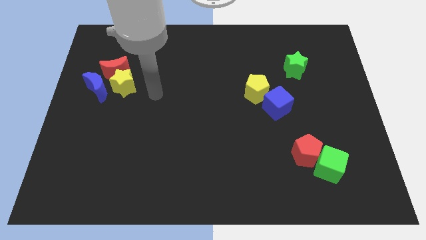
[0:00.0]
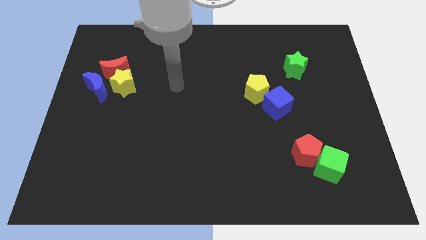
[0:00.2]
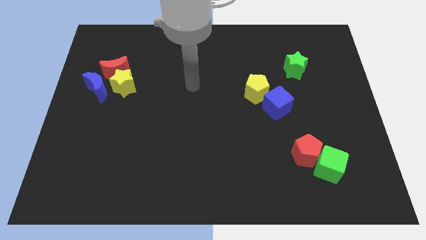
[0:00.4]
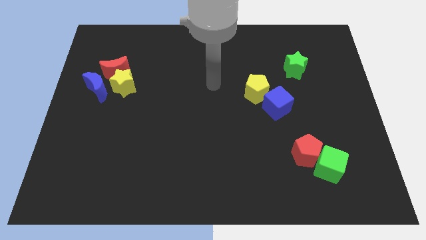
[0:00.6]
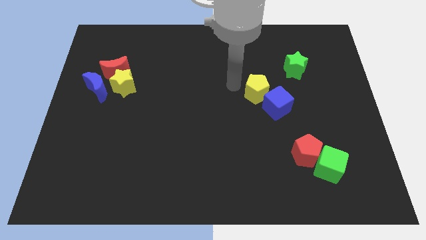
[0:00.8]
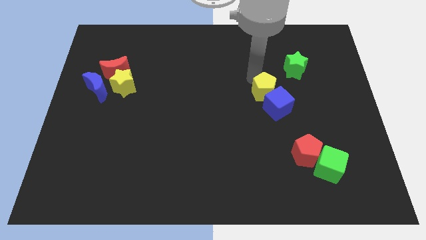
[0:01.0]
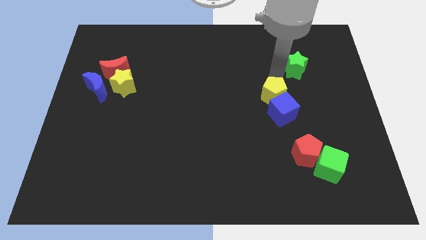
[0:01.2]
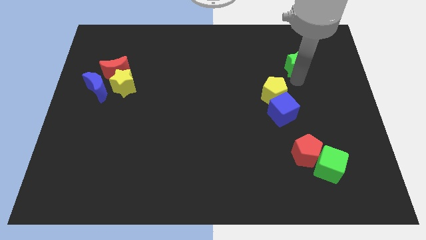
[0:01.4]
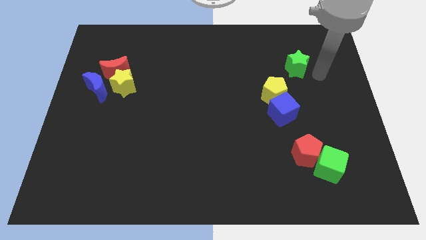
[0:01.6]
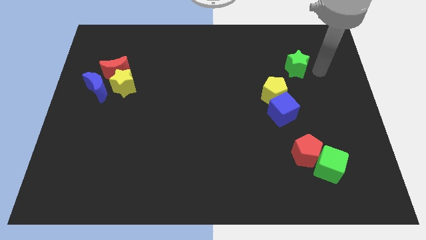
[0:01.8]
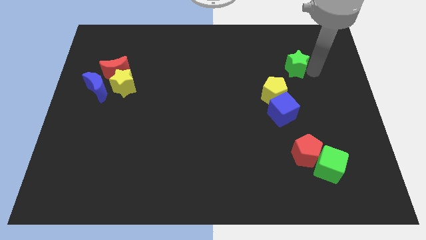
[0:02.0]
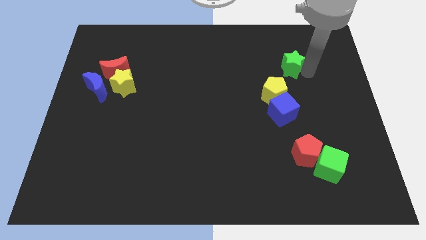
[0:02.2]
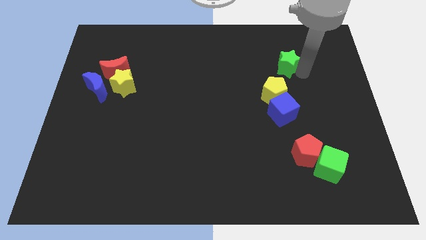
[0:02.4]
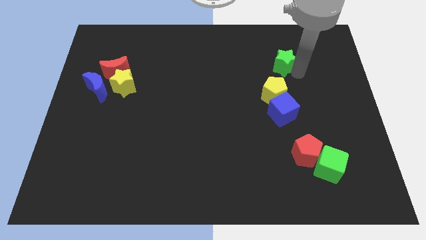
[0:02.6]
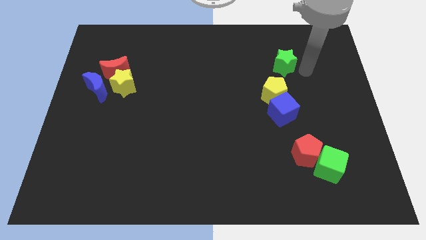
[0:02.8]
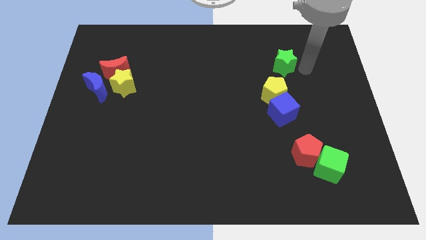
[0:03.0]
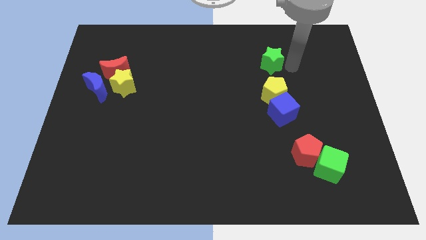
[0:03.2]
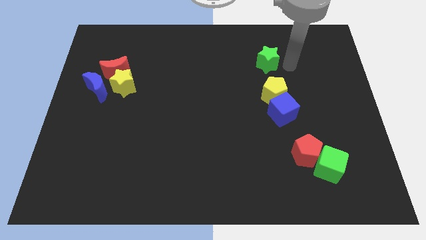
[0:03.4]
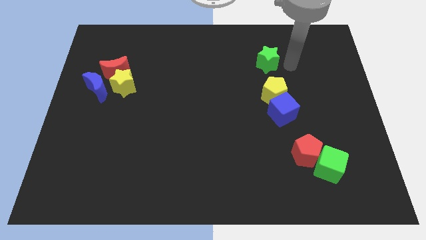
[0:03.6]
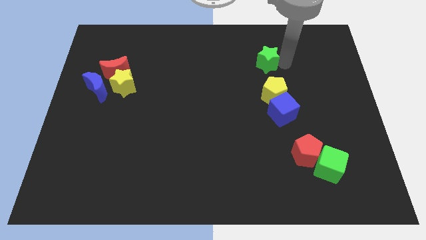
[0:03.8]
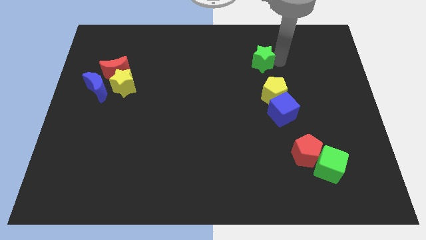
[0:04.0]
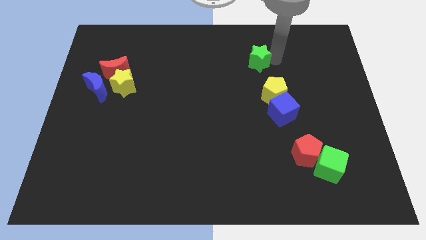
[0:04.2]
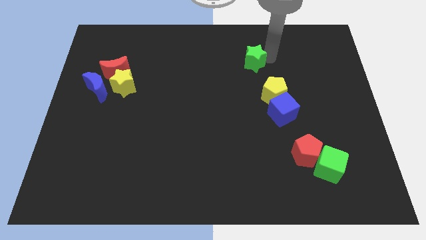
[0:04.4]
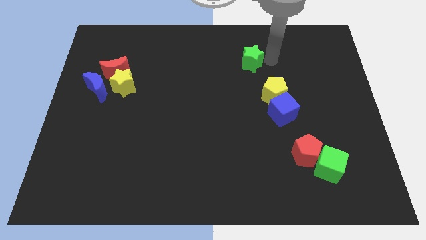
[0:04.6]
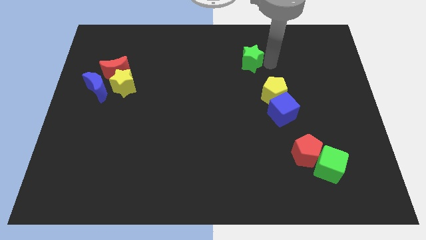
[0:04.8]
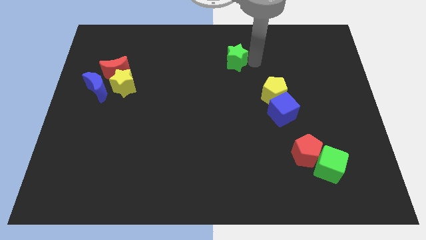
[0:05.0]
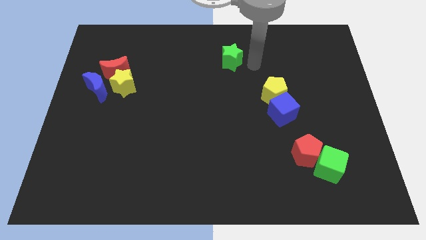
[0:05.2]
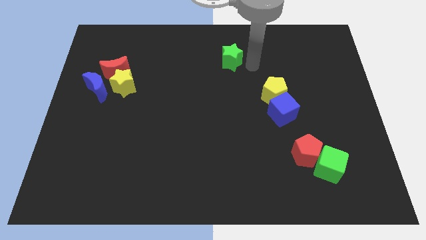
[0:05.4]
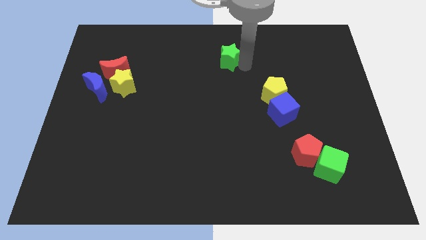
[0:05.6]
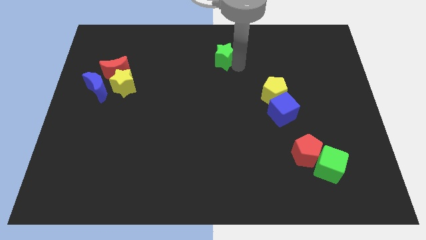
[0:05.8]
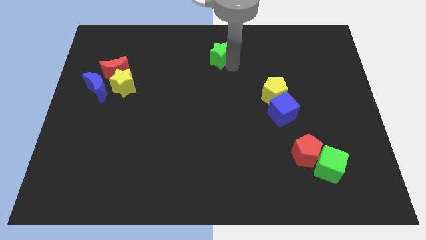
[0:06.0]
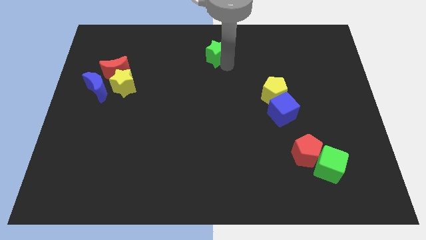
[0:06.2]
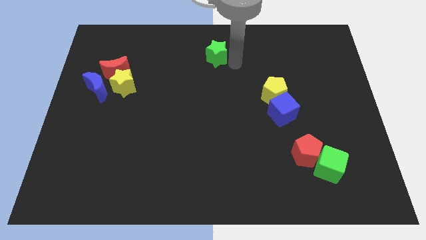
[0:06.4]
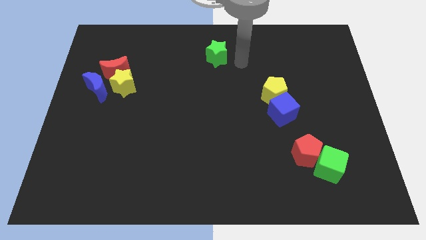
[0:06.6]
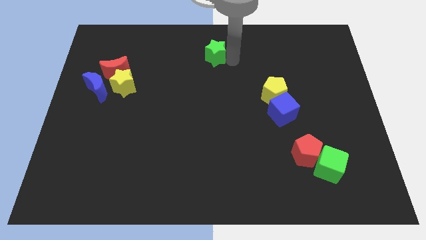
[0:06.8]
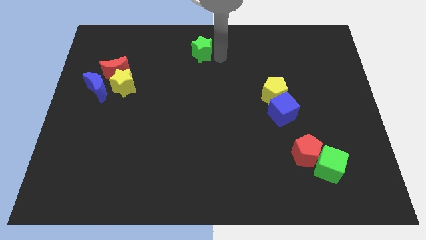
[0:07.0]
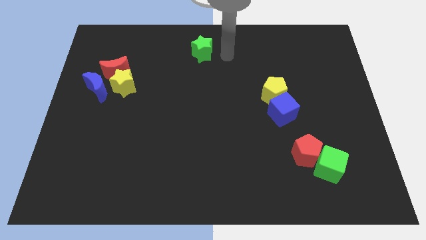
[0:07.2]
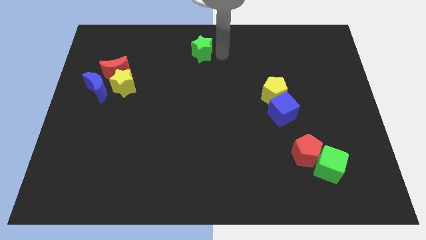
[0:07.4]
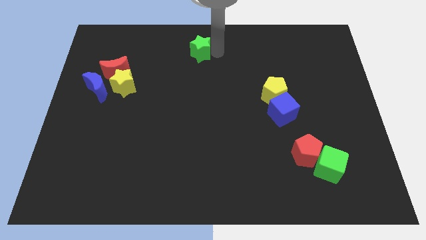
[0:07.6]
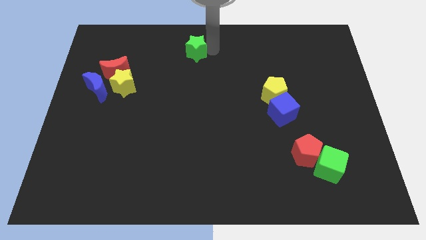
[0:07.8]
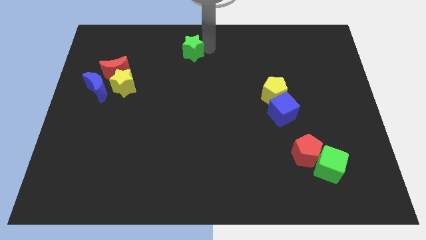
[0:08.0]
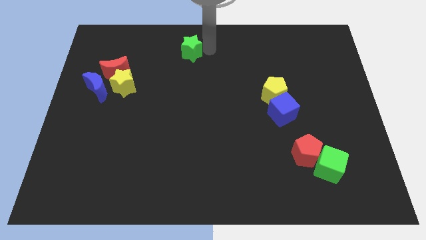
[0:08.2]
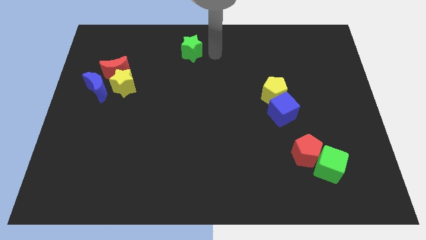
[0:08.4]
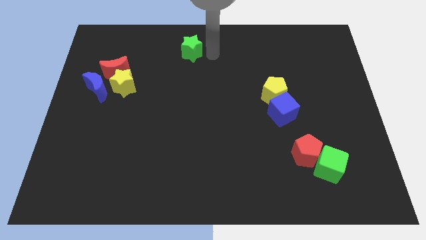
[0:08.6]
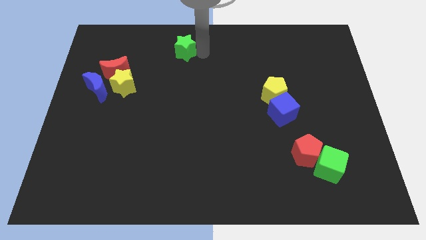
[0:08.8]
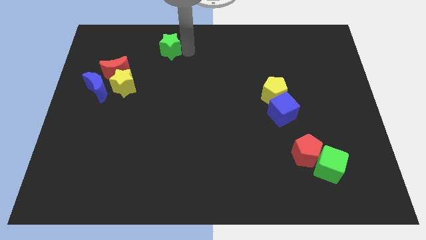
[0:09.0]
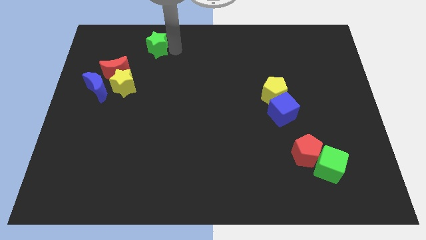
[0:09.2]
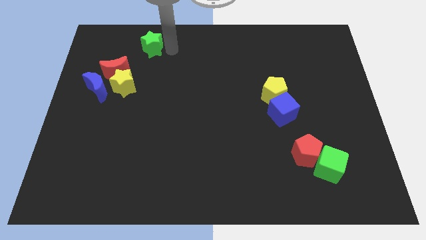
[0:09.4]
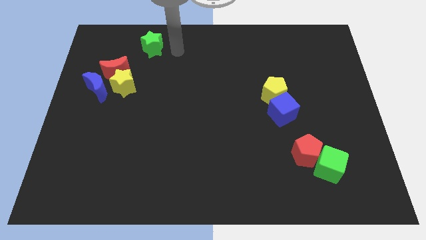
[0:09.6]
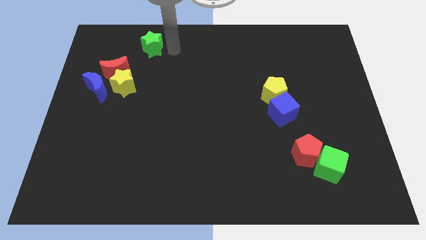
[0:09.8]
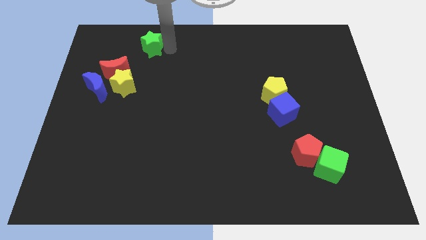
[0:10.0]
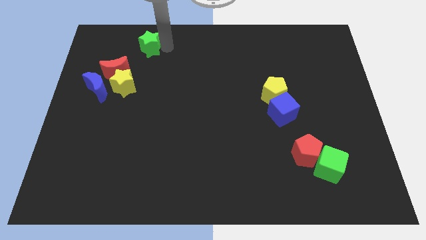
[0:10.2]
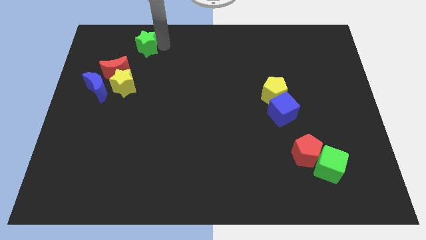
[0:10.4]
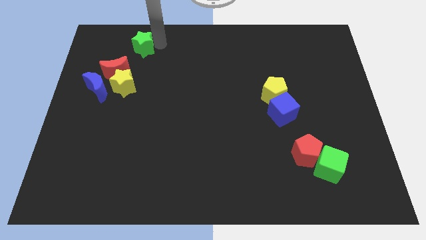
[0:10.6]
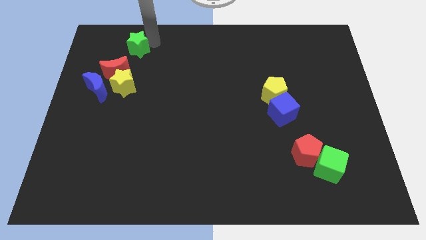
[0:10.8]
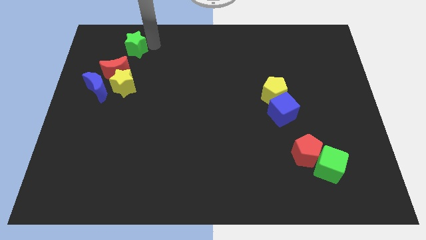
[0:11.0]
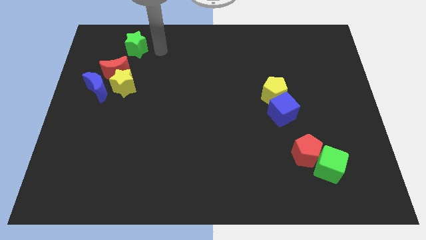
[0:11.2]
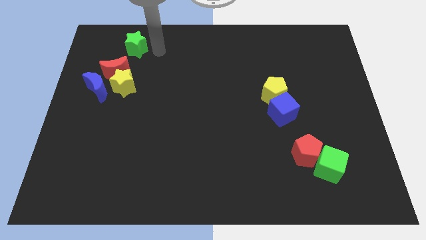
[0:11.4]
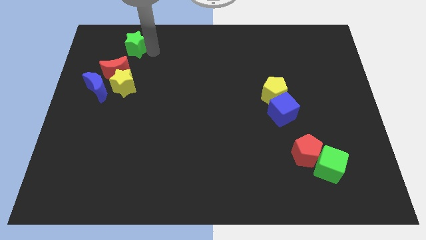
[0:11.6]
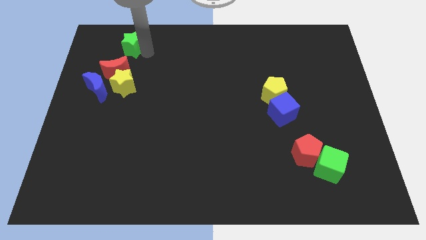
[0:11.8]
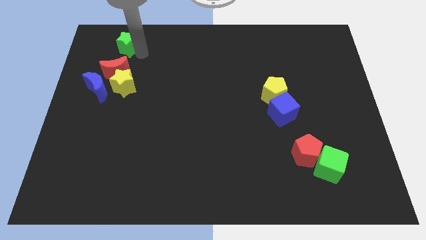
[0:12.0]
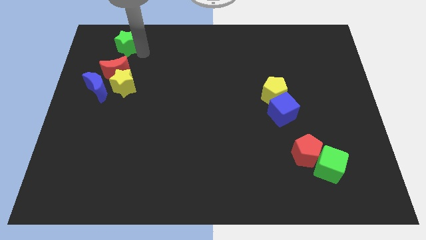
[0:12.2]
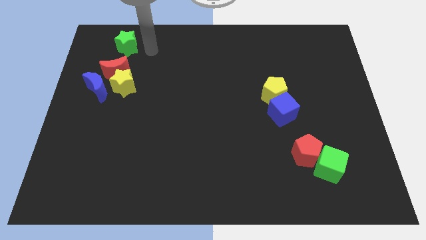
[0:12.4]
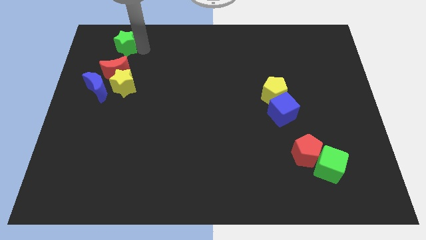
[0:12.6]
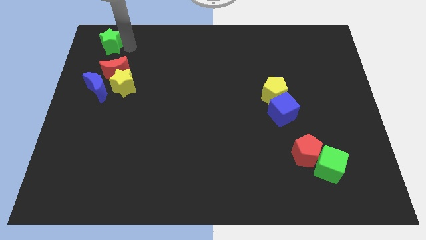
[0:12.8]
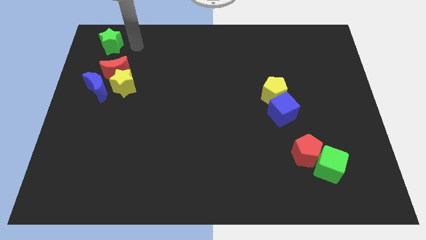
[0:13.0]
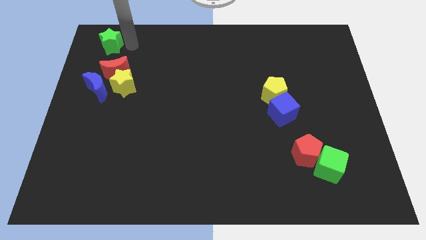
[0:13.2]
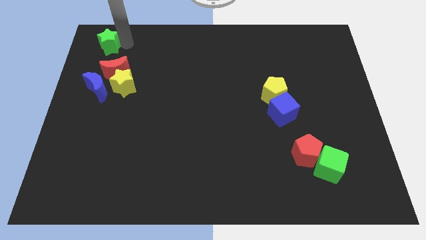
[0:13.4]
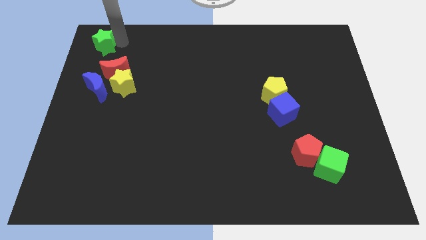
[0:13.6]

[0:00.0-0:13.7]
move the green star to the top left corner
